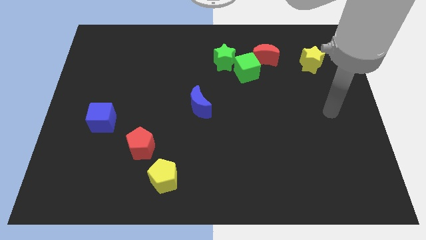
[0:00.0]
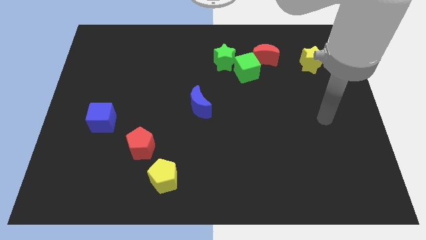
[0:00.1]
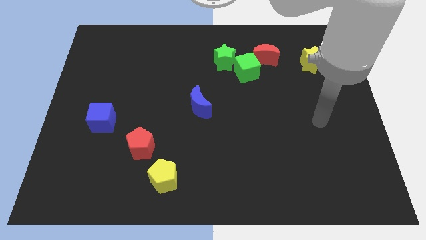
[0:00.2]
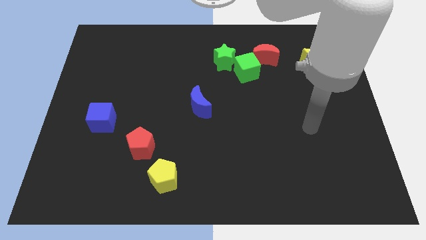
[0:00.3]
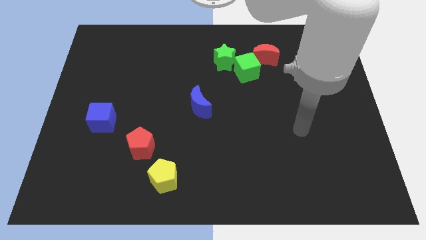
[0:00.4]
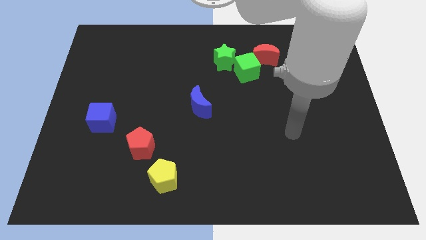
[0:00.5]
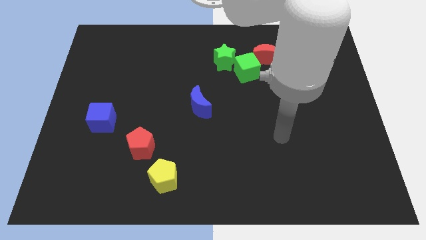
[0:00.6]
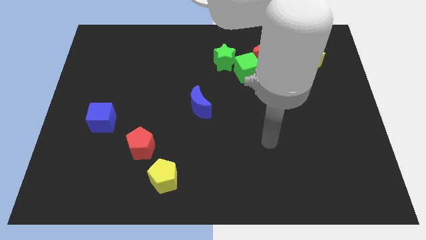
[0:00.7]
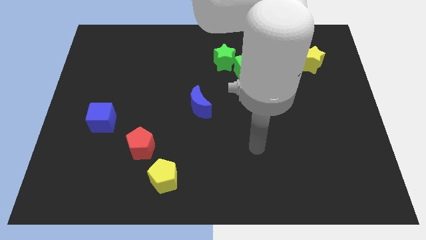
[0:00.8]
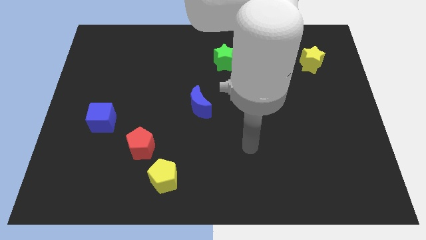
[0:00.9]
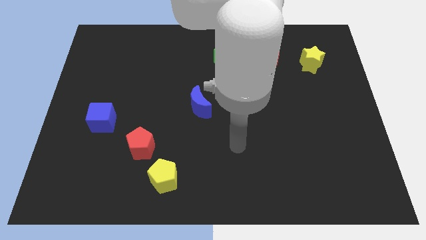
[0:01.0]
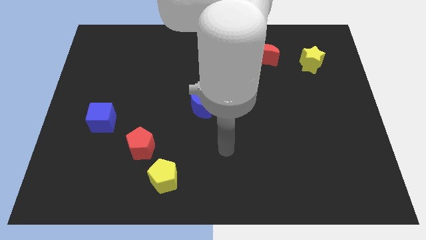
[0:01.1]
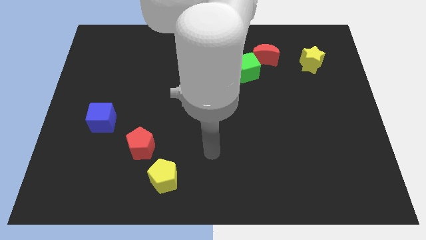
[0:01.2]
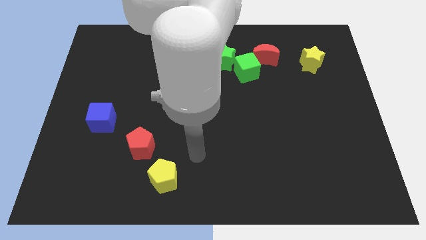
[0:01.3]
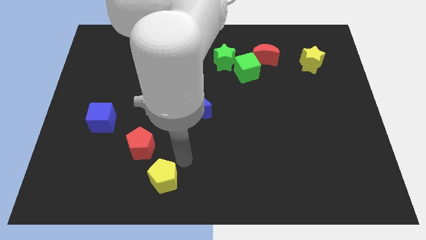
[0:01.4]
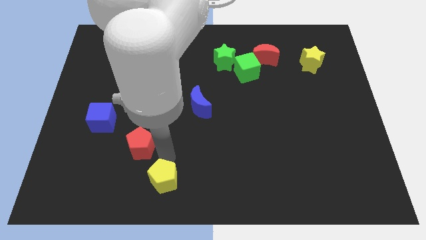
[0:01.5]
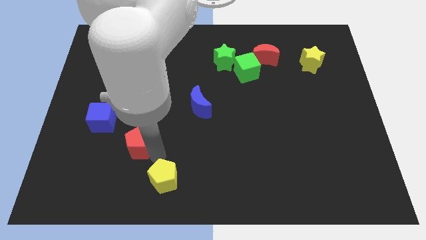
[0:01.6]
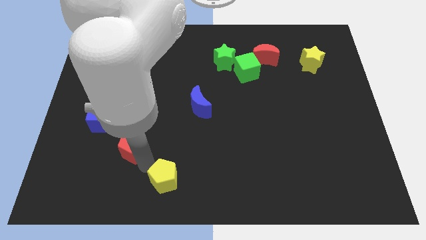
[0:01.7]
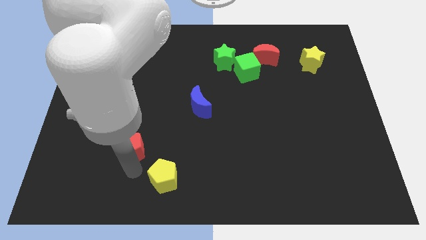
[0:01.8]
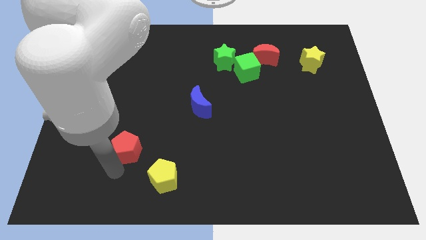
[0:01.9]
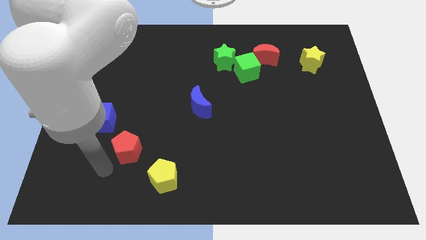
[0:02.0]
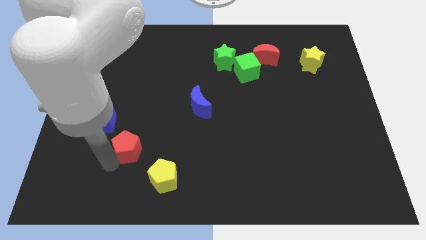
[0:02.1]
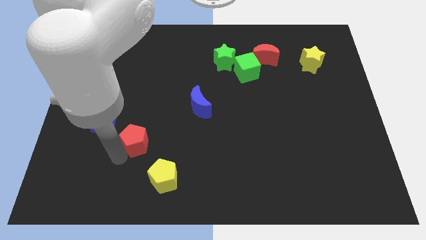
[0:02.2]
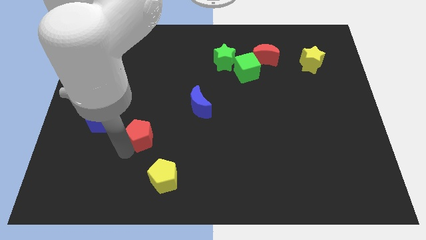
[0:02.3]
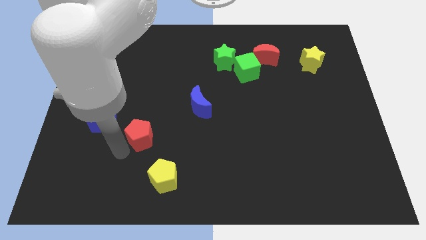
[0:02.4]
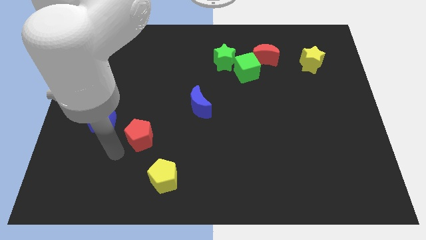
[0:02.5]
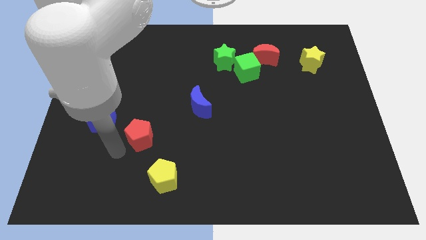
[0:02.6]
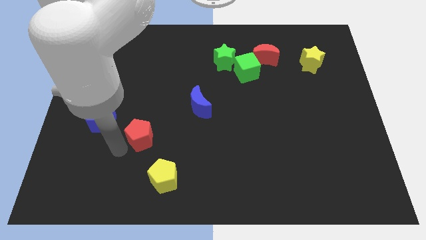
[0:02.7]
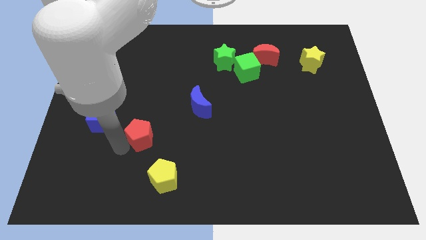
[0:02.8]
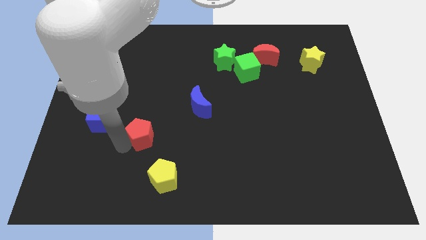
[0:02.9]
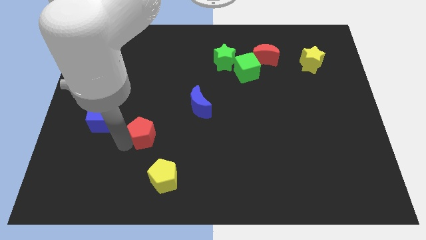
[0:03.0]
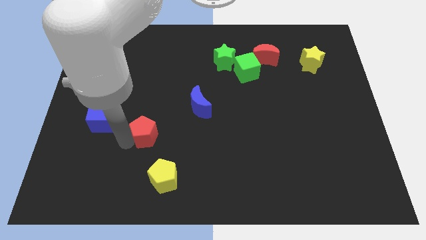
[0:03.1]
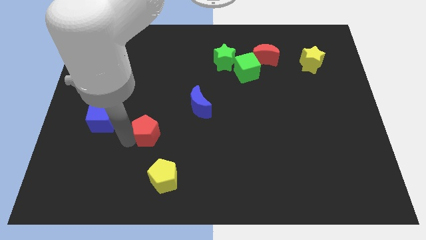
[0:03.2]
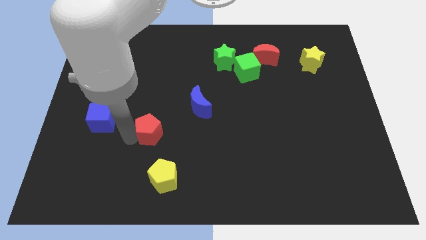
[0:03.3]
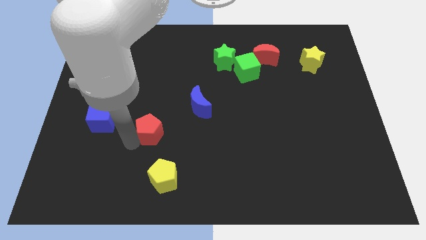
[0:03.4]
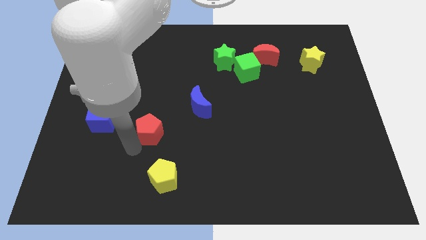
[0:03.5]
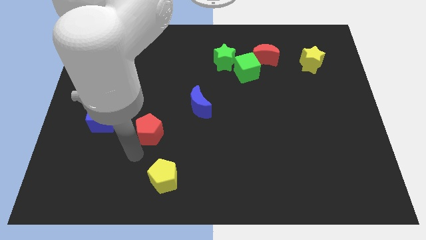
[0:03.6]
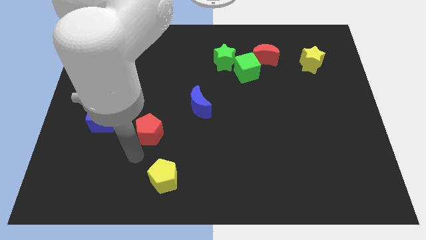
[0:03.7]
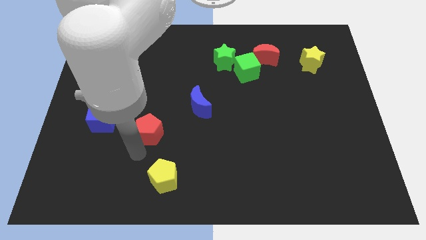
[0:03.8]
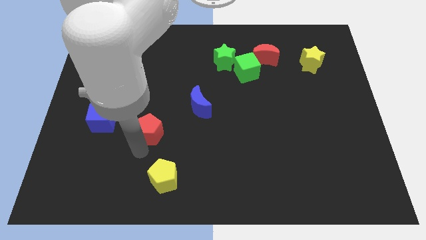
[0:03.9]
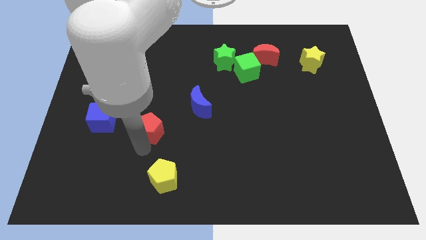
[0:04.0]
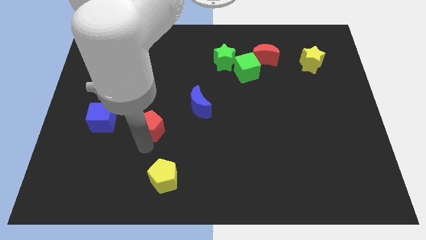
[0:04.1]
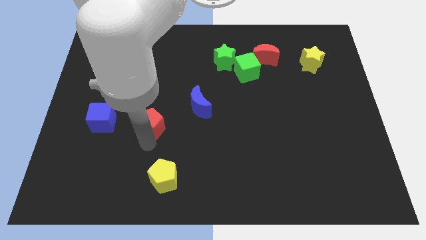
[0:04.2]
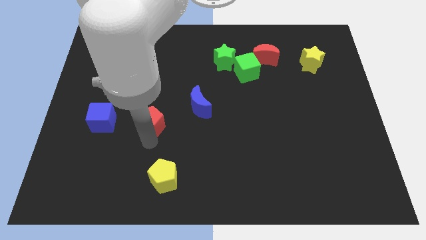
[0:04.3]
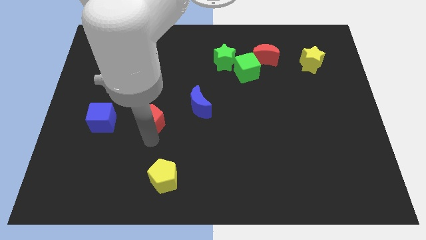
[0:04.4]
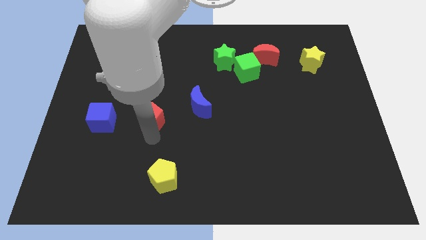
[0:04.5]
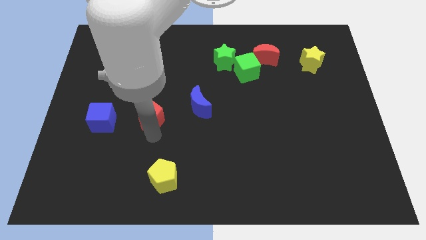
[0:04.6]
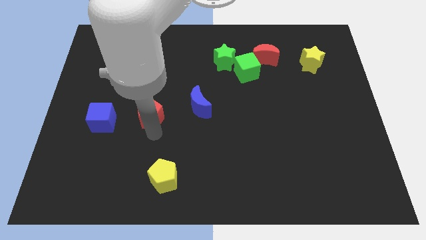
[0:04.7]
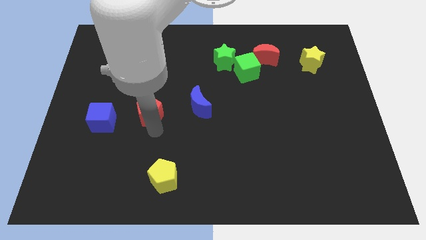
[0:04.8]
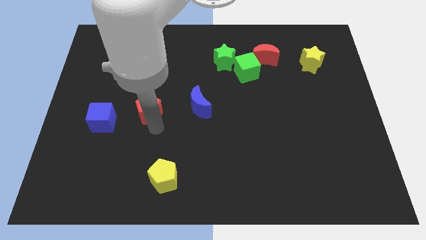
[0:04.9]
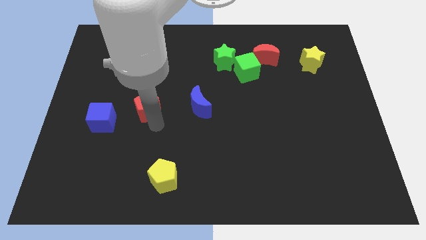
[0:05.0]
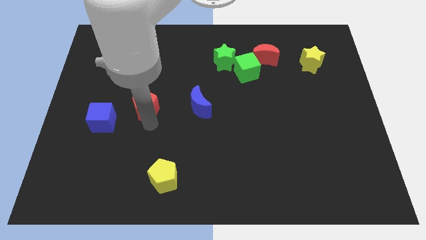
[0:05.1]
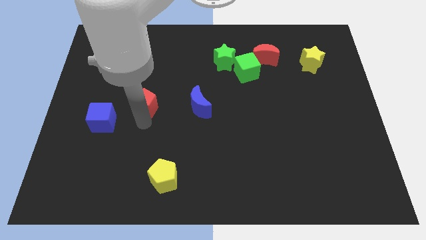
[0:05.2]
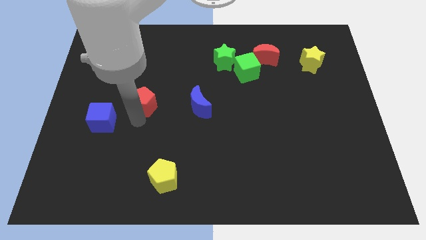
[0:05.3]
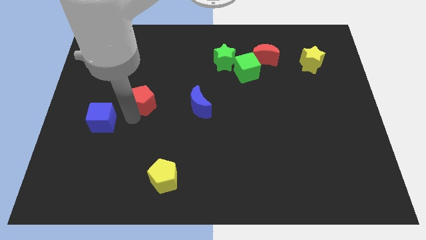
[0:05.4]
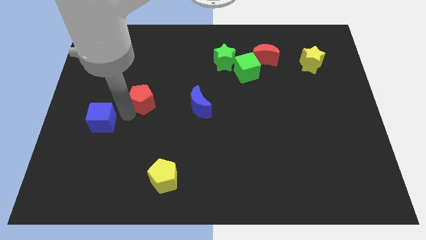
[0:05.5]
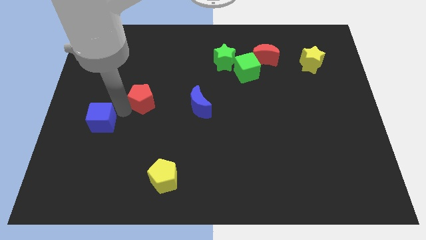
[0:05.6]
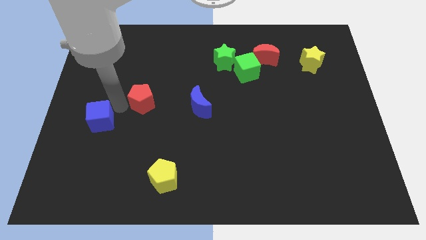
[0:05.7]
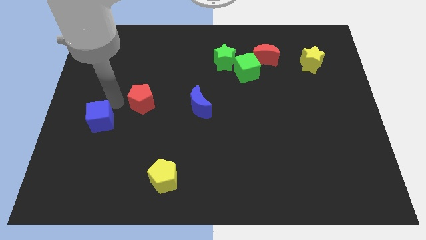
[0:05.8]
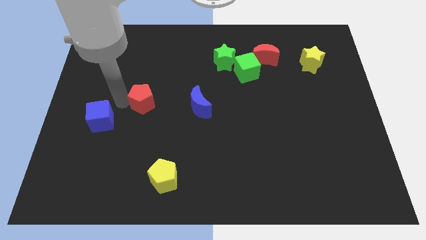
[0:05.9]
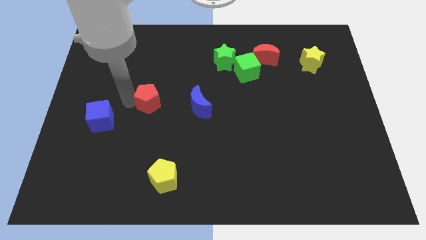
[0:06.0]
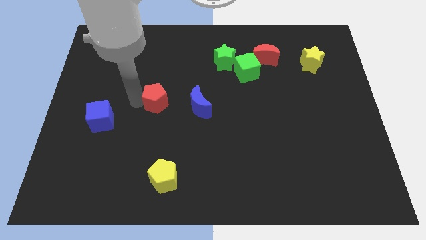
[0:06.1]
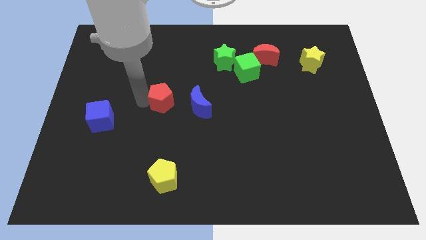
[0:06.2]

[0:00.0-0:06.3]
slide the red pentagon to the top left of the blue moon
